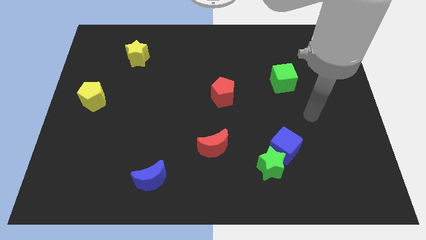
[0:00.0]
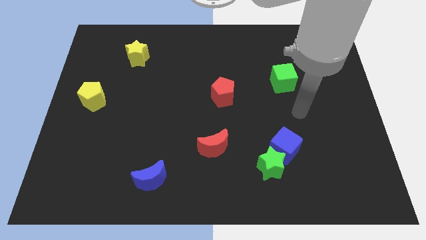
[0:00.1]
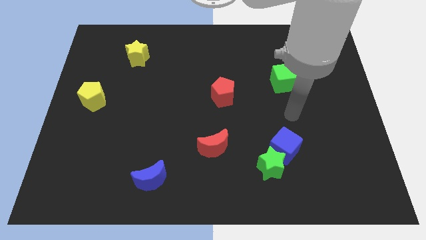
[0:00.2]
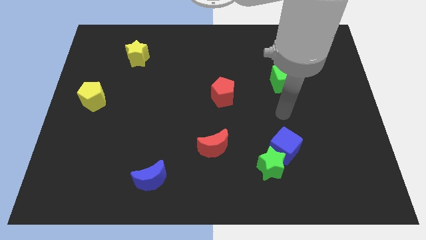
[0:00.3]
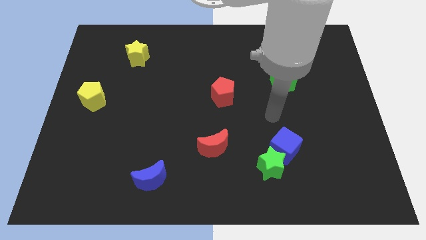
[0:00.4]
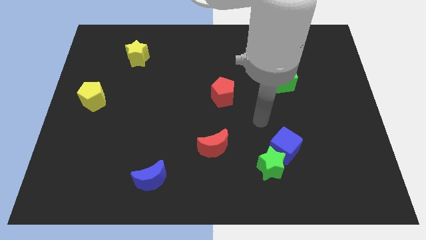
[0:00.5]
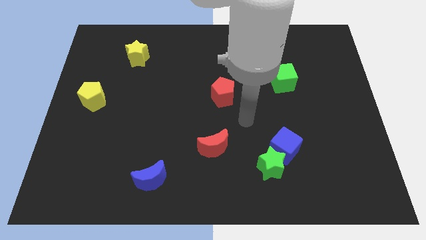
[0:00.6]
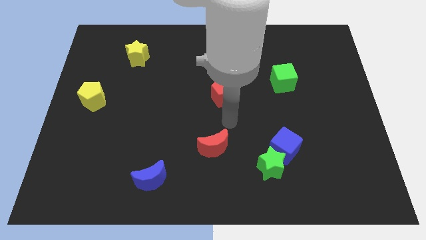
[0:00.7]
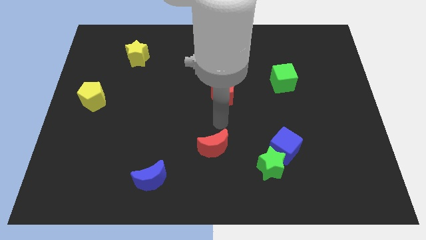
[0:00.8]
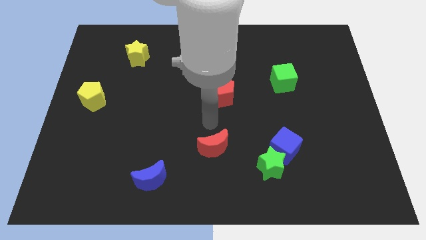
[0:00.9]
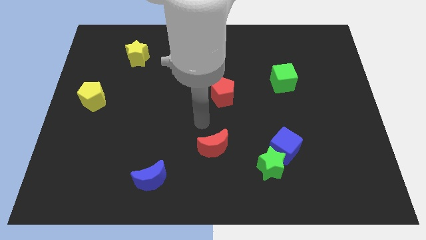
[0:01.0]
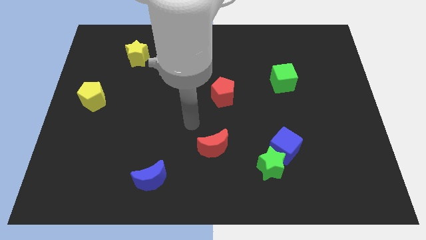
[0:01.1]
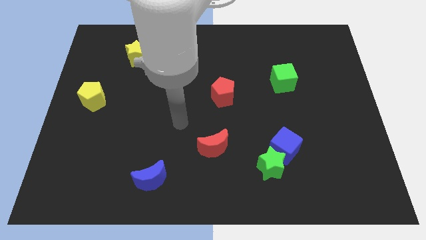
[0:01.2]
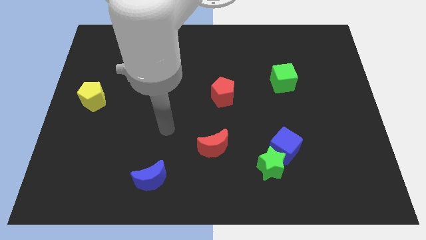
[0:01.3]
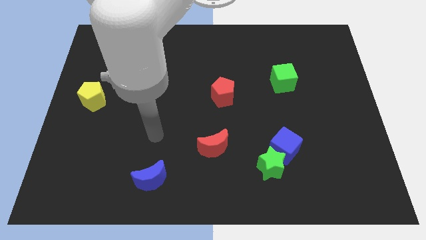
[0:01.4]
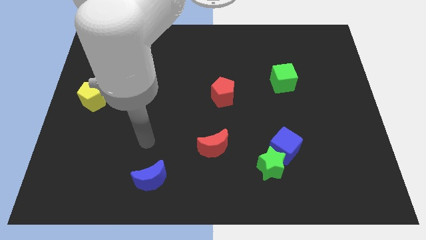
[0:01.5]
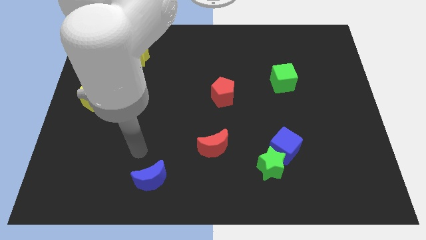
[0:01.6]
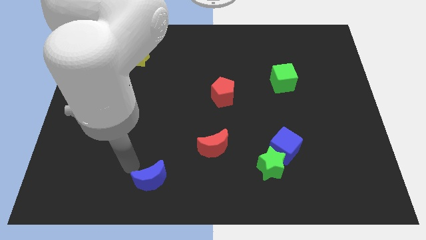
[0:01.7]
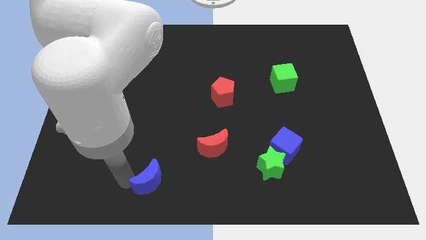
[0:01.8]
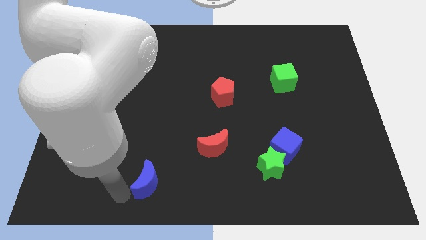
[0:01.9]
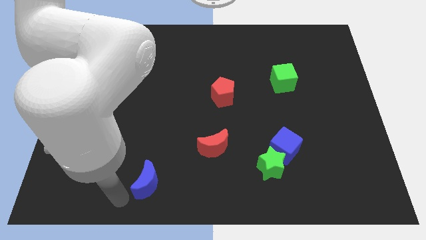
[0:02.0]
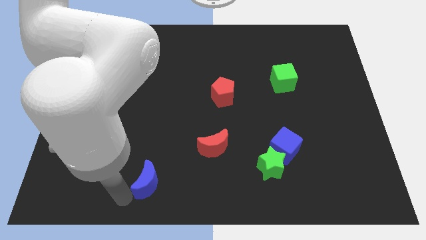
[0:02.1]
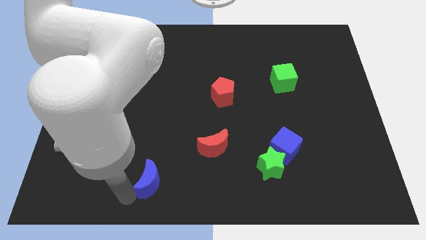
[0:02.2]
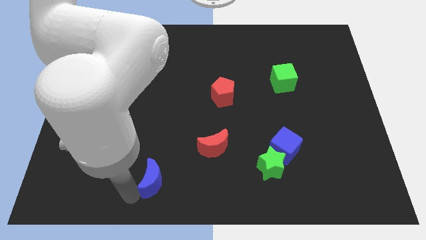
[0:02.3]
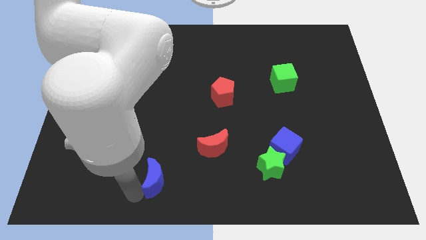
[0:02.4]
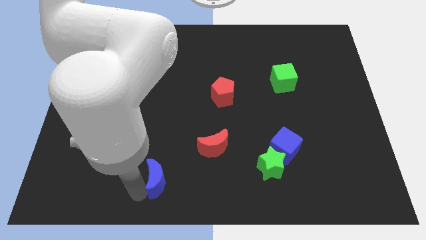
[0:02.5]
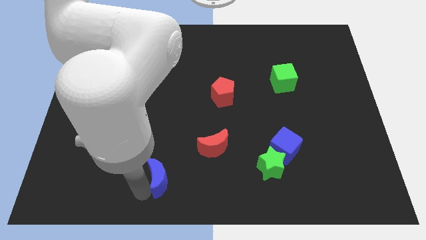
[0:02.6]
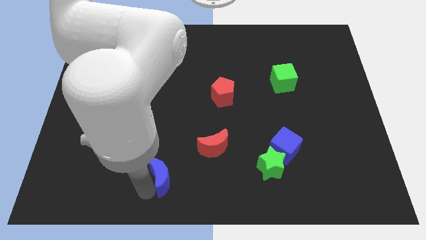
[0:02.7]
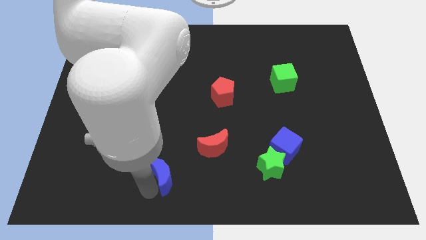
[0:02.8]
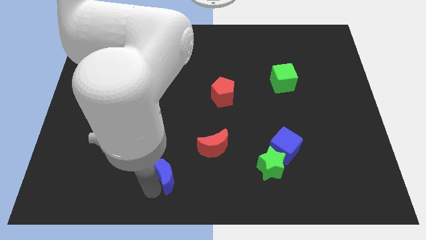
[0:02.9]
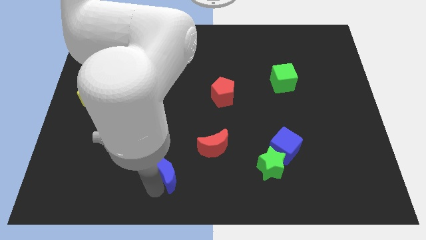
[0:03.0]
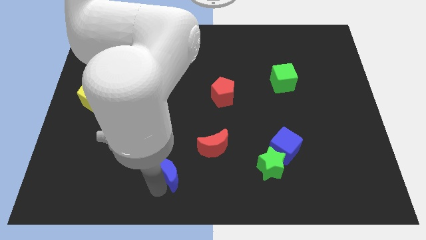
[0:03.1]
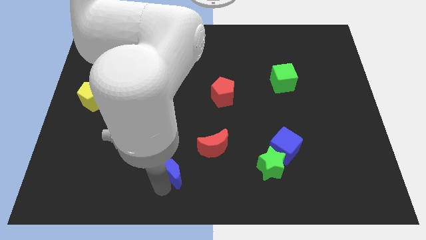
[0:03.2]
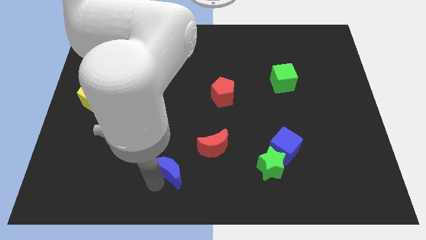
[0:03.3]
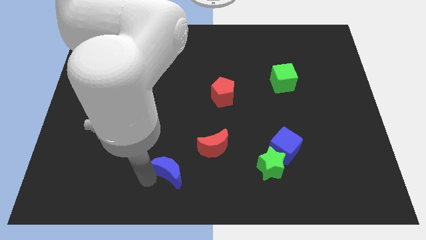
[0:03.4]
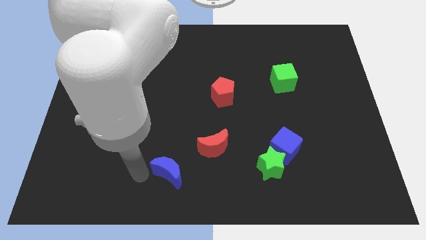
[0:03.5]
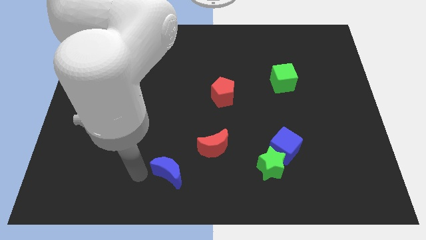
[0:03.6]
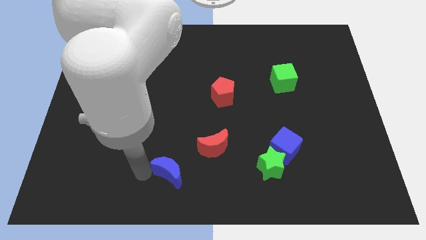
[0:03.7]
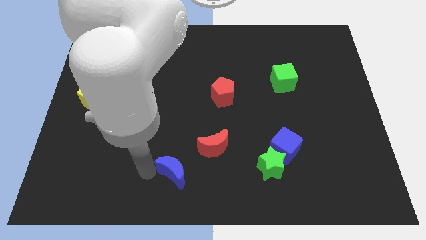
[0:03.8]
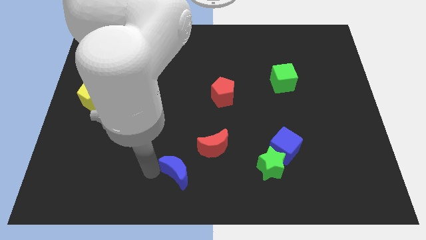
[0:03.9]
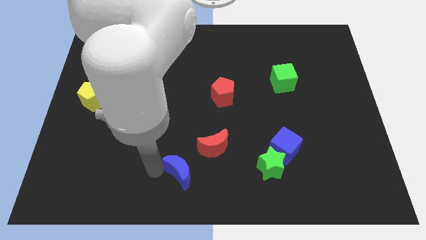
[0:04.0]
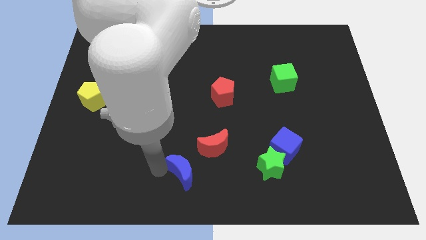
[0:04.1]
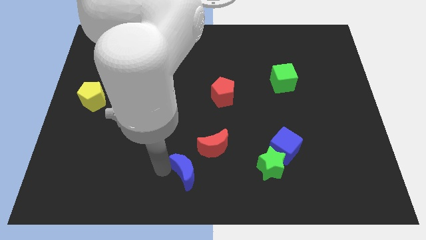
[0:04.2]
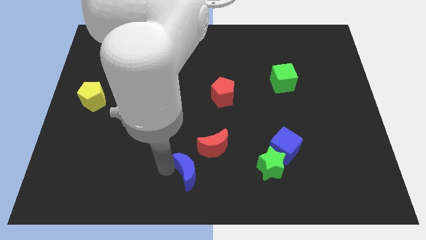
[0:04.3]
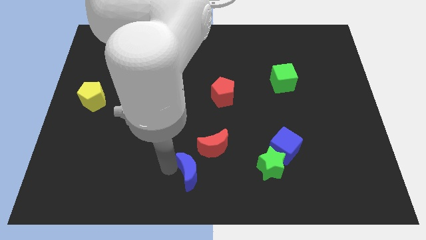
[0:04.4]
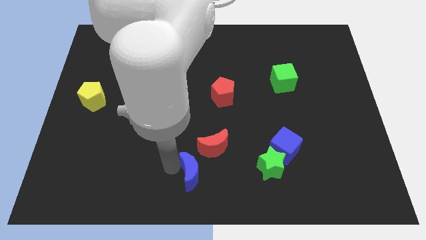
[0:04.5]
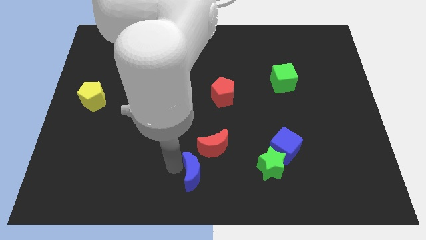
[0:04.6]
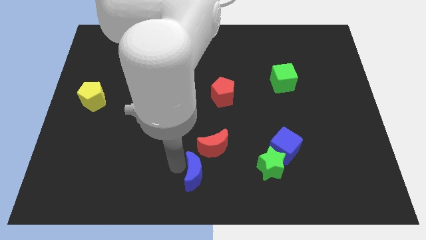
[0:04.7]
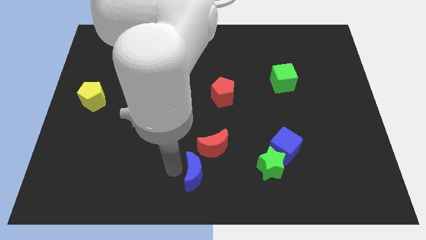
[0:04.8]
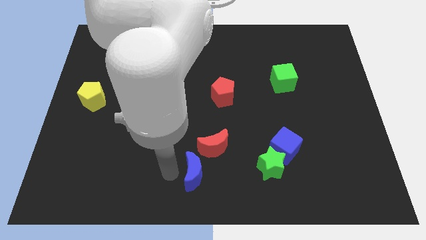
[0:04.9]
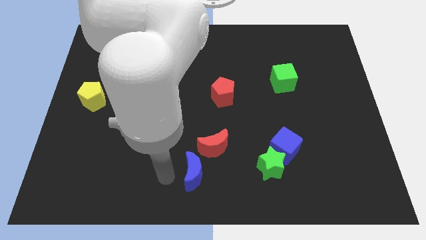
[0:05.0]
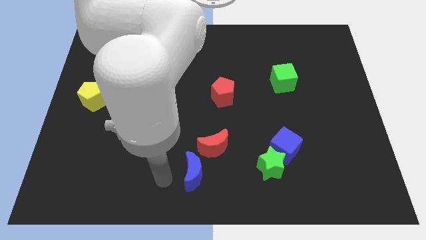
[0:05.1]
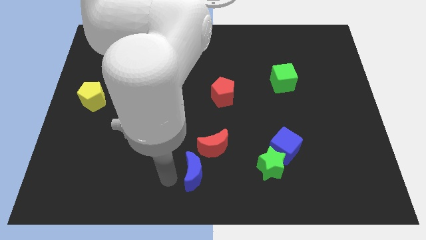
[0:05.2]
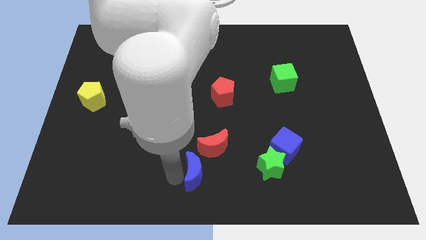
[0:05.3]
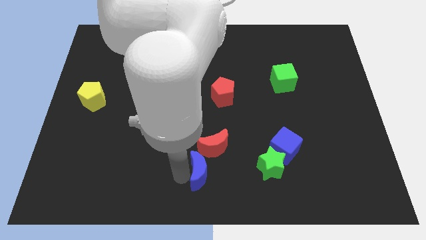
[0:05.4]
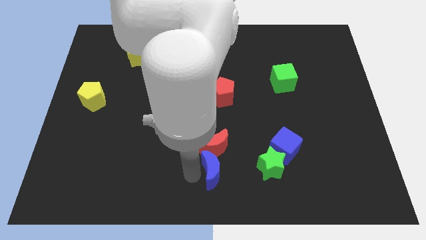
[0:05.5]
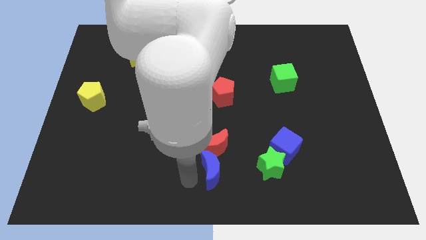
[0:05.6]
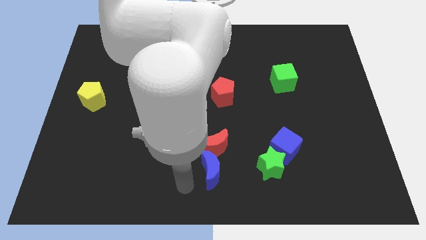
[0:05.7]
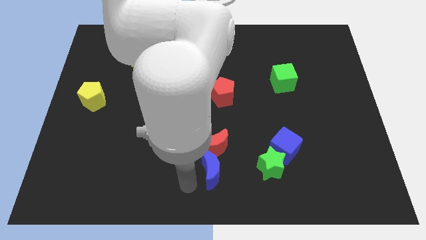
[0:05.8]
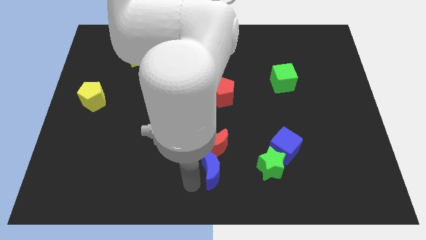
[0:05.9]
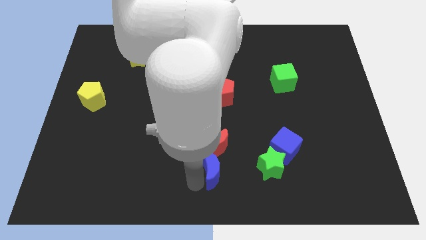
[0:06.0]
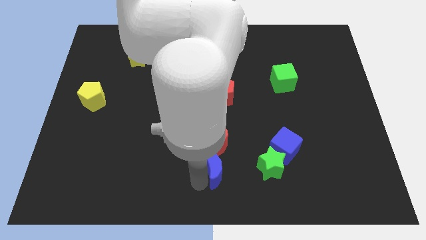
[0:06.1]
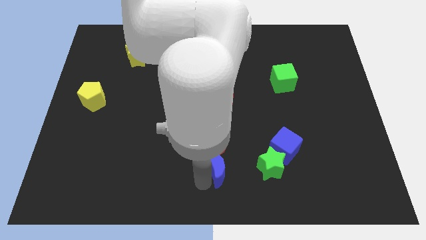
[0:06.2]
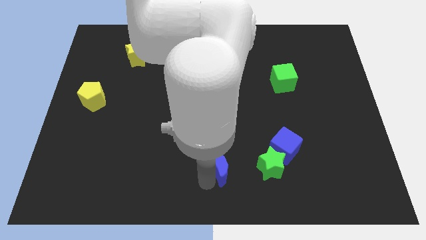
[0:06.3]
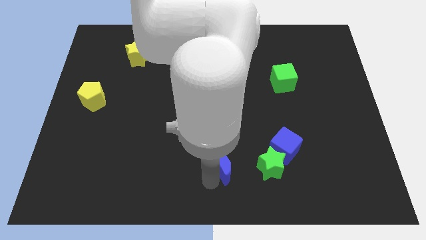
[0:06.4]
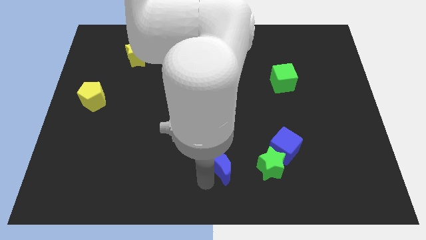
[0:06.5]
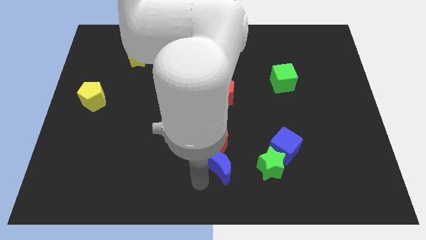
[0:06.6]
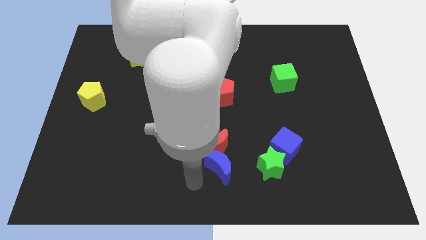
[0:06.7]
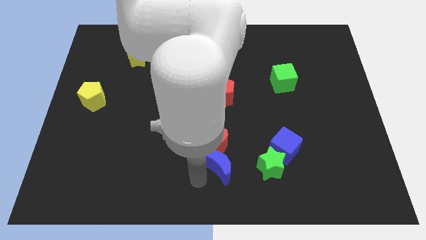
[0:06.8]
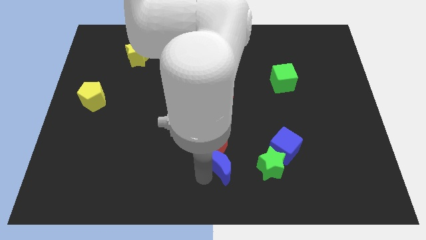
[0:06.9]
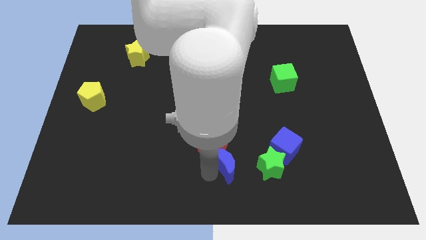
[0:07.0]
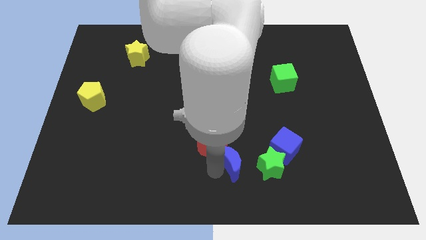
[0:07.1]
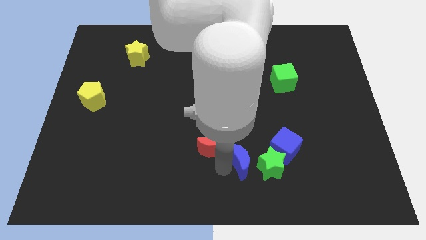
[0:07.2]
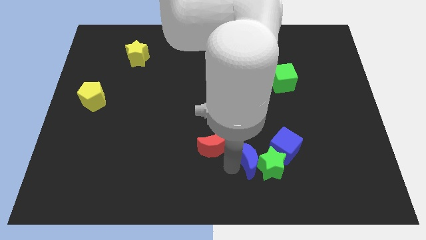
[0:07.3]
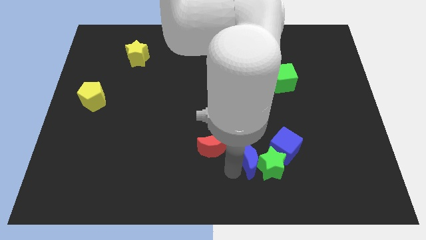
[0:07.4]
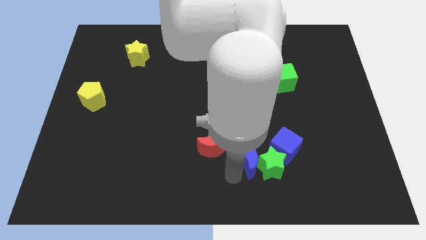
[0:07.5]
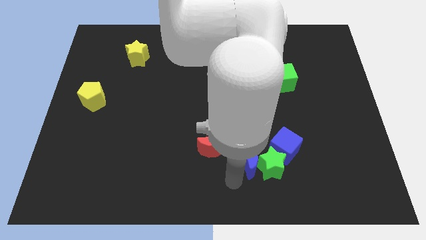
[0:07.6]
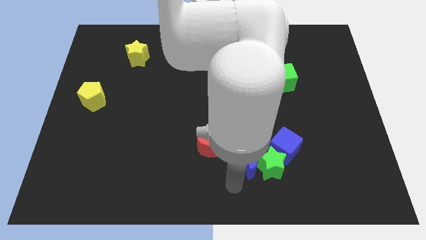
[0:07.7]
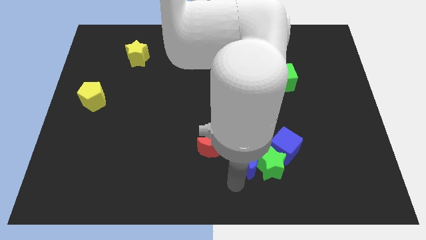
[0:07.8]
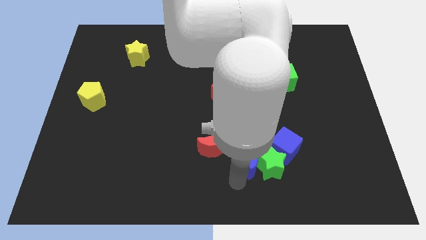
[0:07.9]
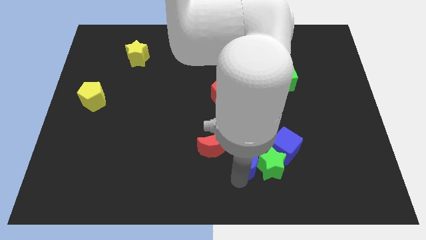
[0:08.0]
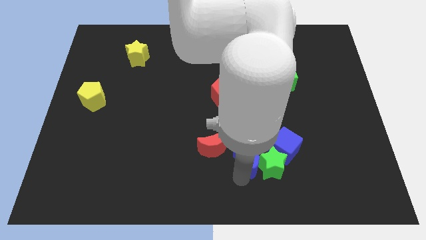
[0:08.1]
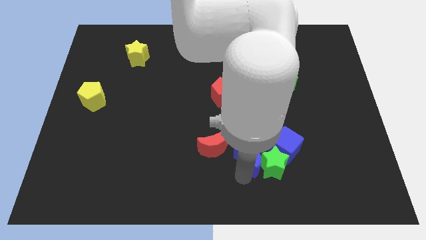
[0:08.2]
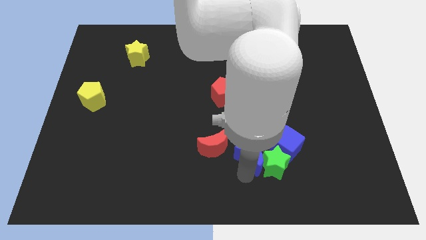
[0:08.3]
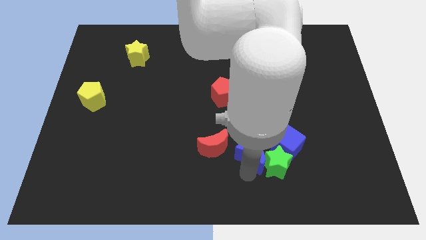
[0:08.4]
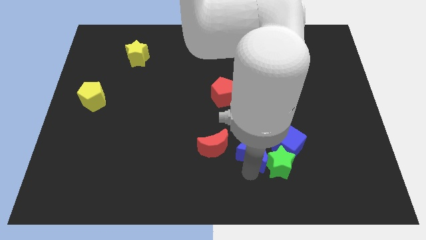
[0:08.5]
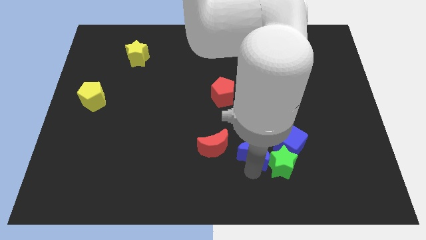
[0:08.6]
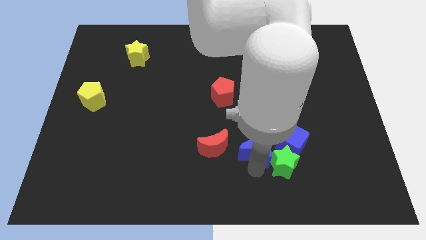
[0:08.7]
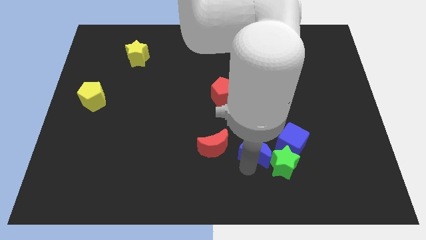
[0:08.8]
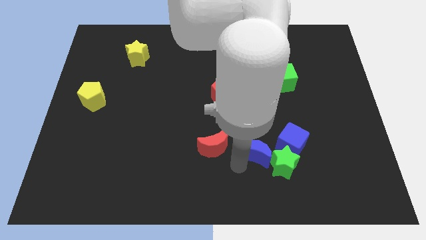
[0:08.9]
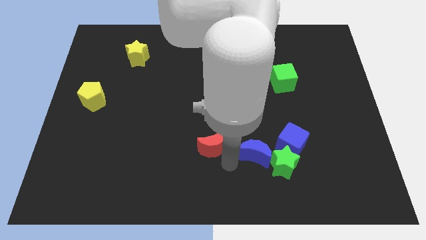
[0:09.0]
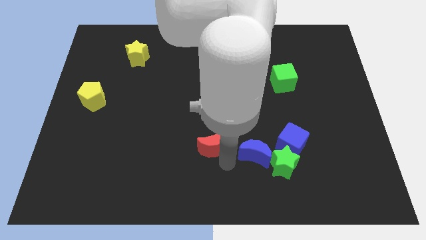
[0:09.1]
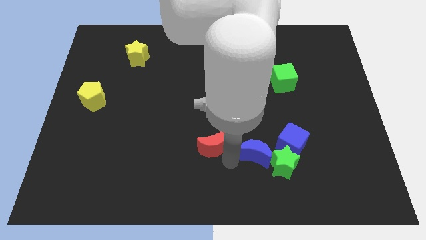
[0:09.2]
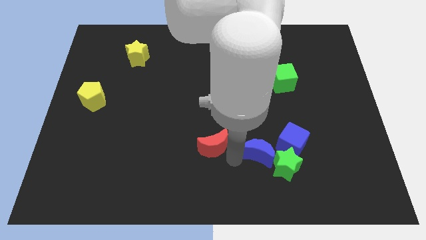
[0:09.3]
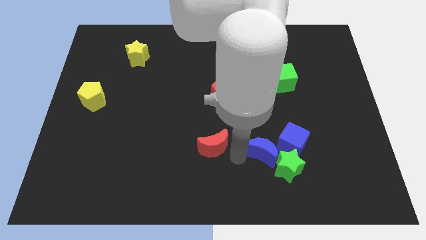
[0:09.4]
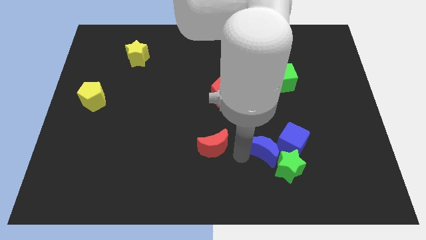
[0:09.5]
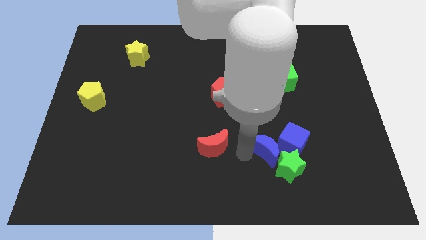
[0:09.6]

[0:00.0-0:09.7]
move the blue moon to the blue cube
